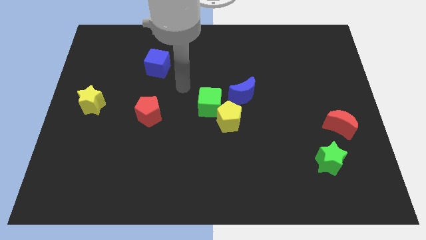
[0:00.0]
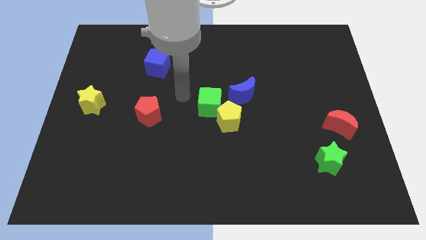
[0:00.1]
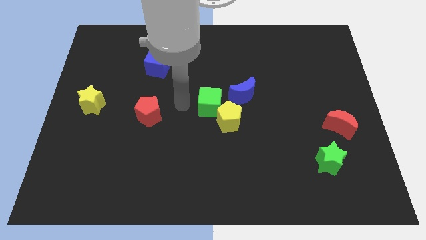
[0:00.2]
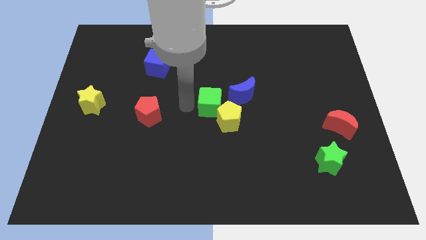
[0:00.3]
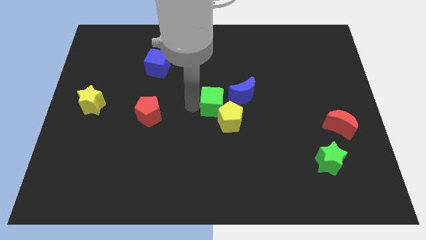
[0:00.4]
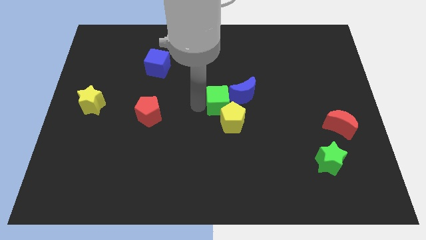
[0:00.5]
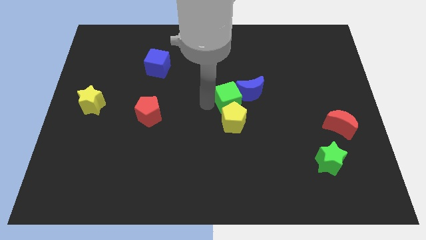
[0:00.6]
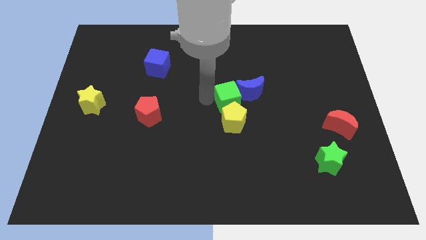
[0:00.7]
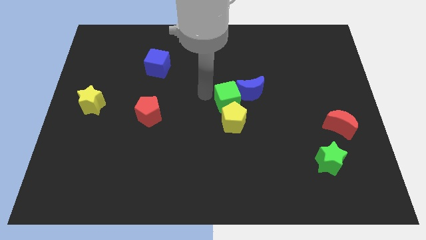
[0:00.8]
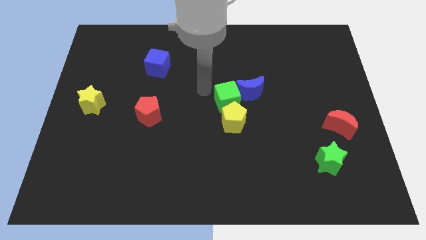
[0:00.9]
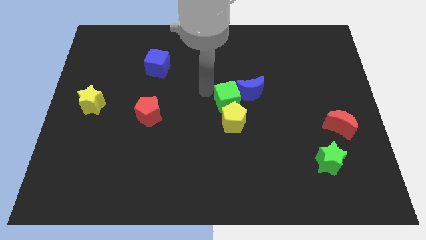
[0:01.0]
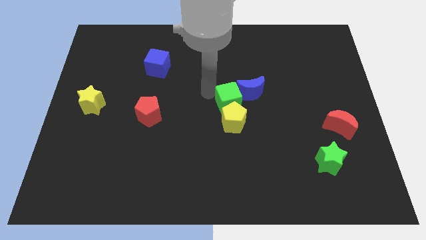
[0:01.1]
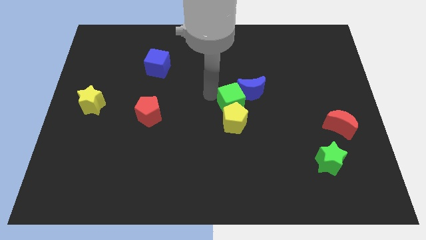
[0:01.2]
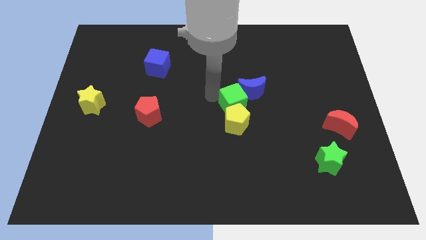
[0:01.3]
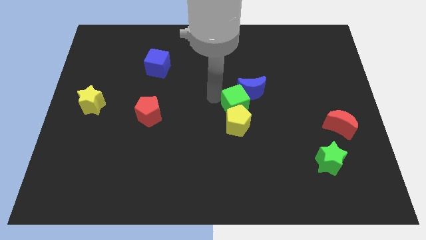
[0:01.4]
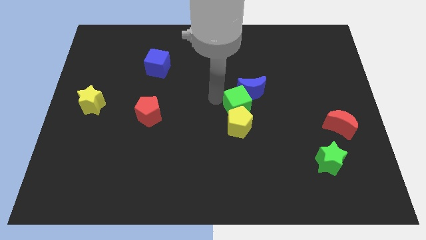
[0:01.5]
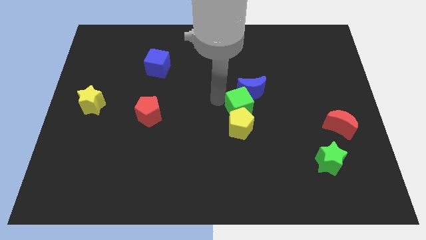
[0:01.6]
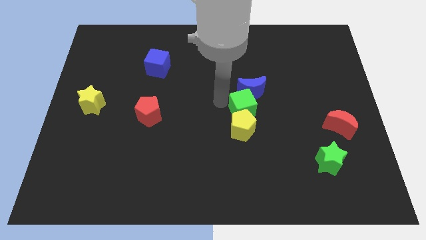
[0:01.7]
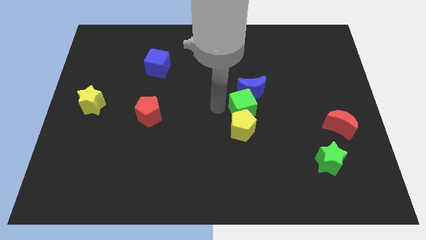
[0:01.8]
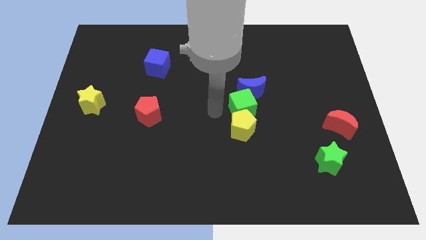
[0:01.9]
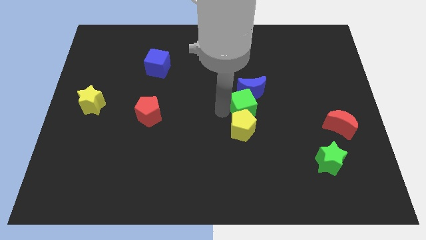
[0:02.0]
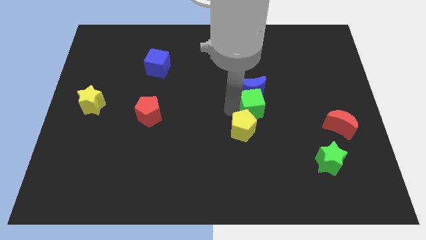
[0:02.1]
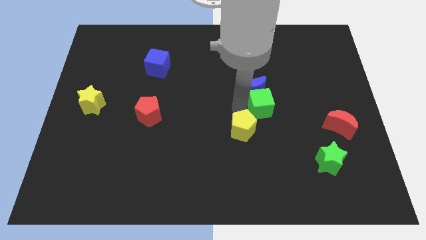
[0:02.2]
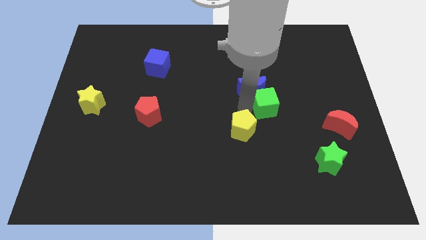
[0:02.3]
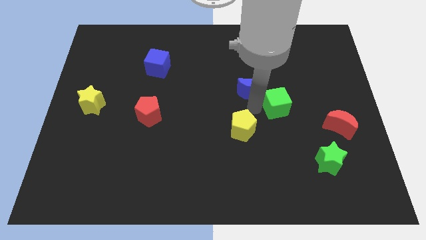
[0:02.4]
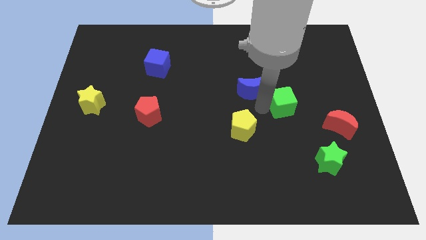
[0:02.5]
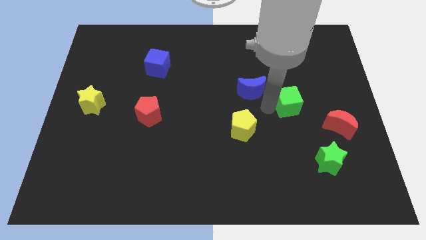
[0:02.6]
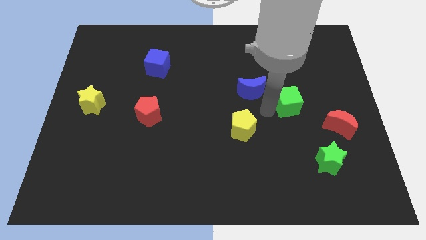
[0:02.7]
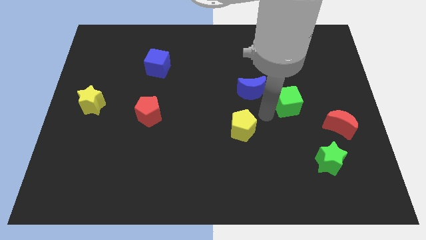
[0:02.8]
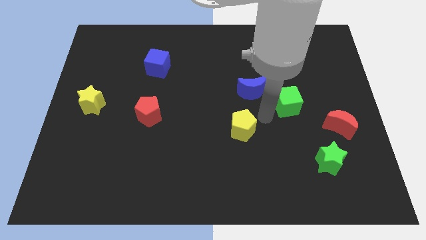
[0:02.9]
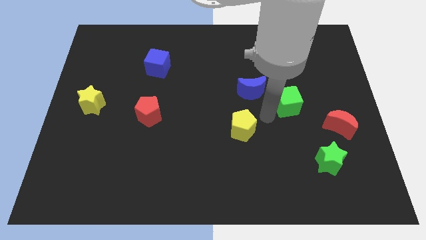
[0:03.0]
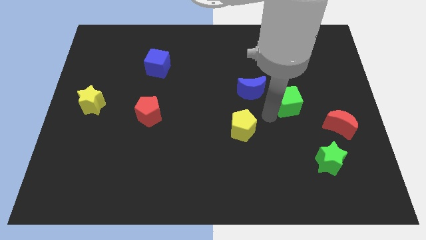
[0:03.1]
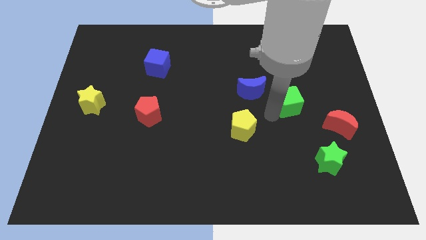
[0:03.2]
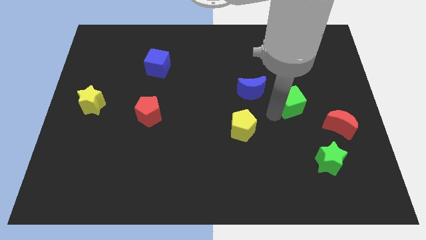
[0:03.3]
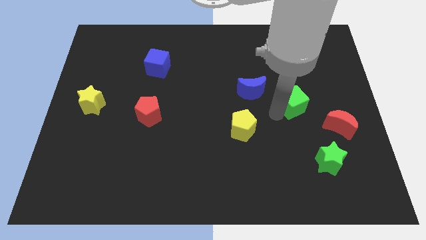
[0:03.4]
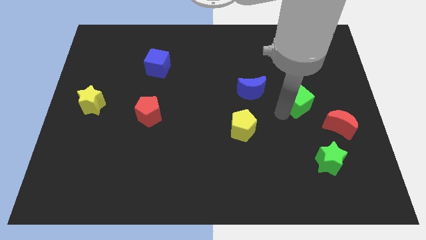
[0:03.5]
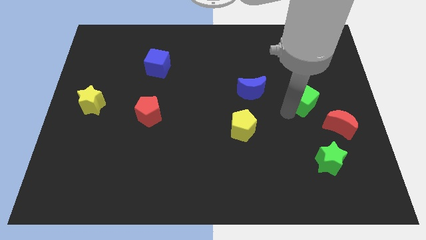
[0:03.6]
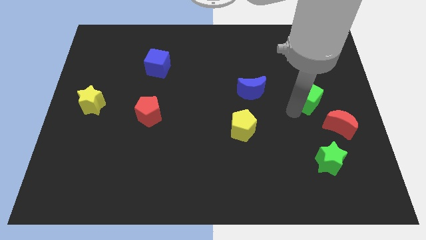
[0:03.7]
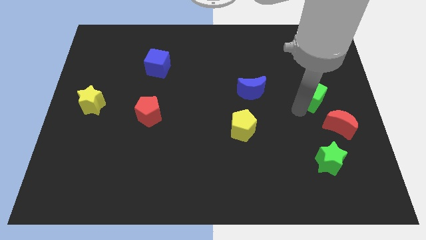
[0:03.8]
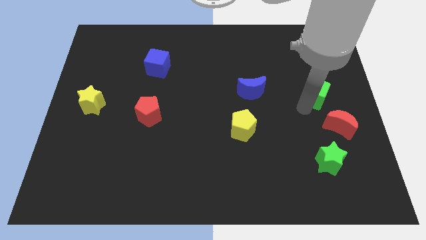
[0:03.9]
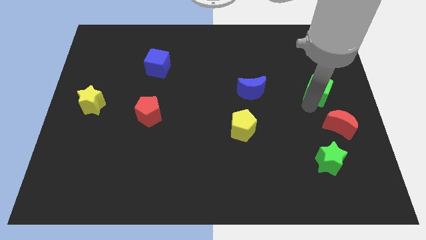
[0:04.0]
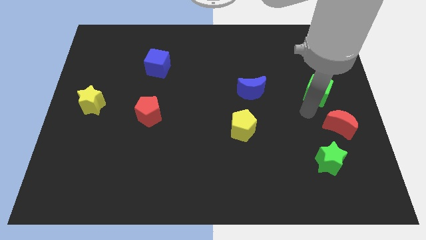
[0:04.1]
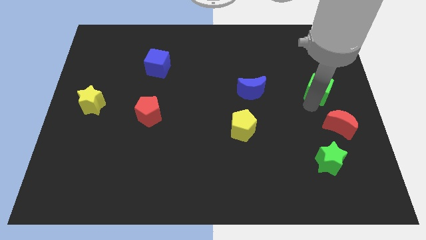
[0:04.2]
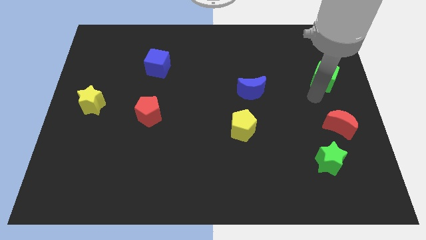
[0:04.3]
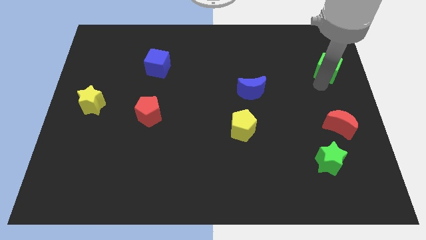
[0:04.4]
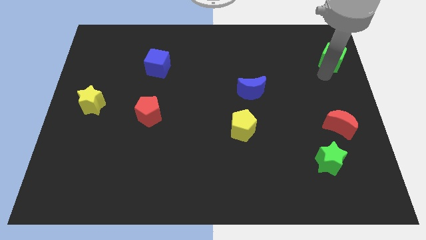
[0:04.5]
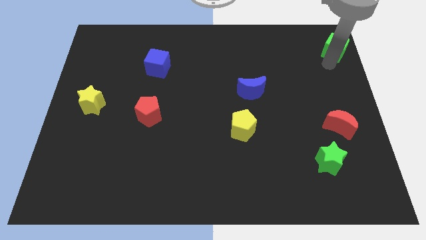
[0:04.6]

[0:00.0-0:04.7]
slide the green cube to the top right

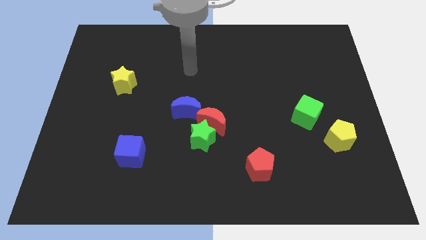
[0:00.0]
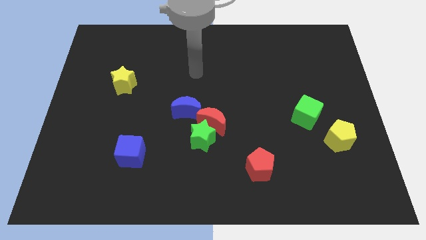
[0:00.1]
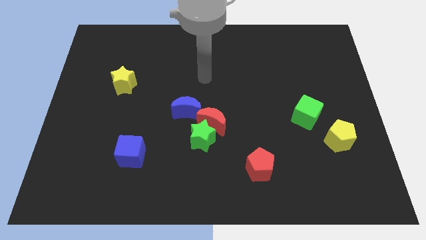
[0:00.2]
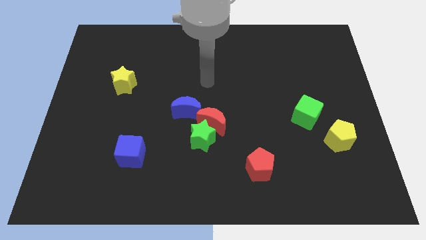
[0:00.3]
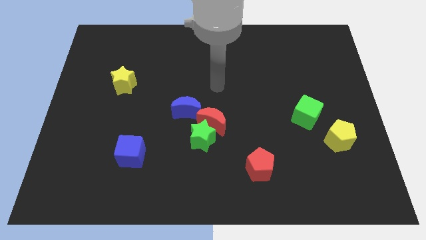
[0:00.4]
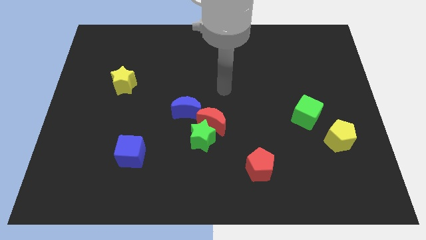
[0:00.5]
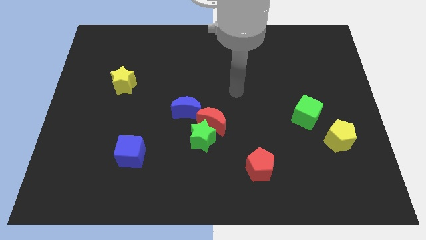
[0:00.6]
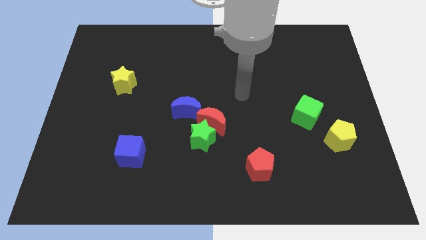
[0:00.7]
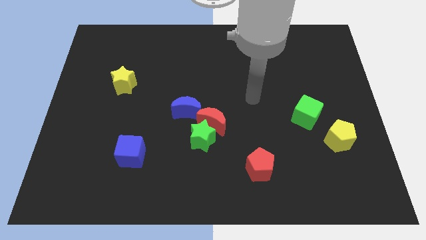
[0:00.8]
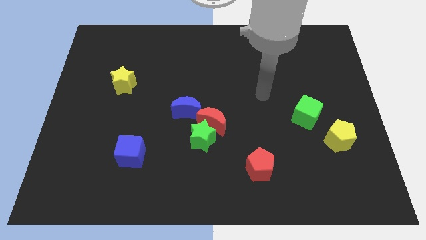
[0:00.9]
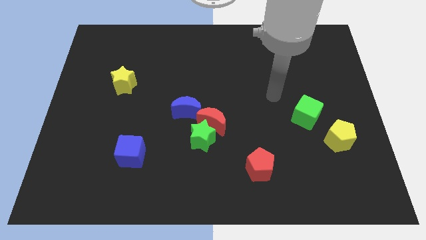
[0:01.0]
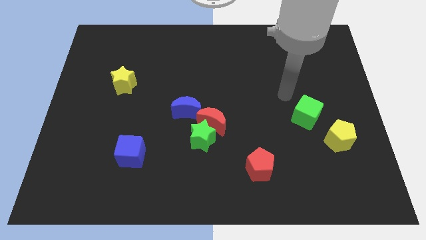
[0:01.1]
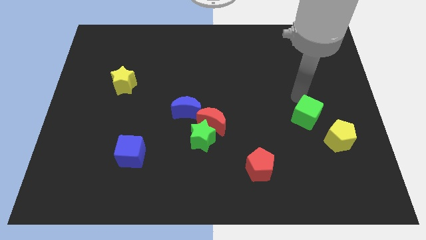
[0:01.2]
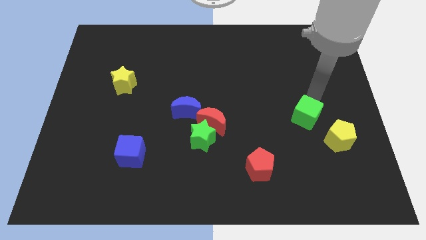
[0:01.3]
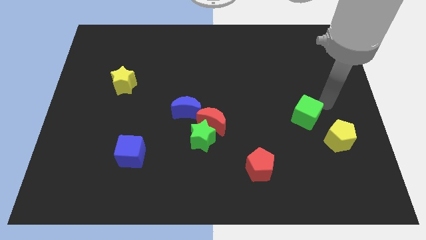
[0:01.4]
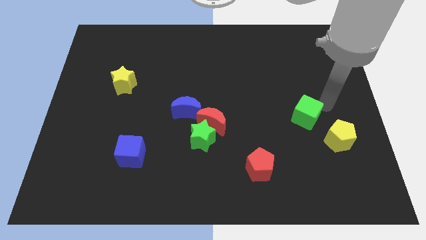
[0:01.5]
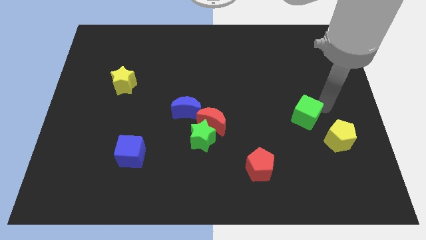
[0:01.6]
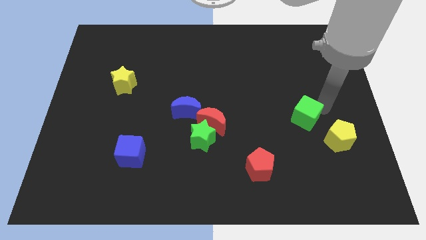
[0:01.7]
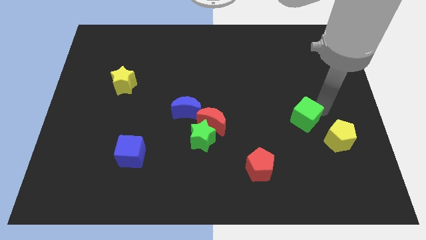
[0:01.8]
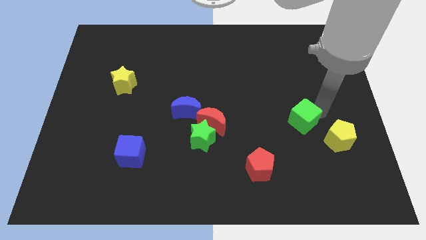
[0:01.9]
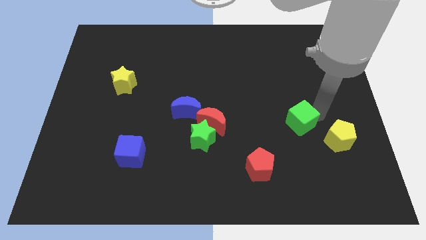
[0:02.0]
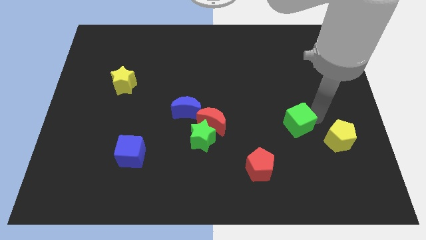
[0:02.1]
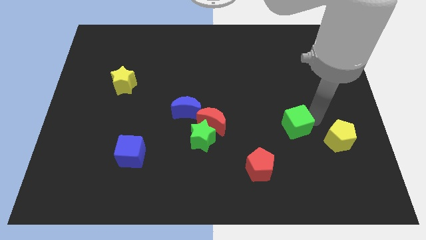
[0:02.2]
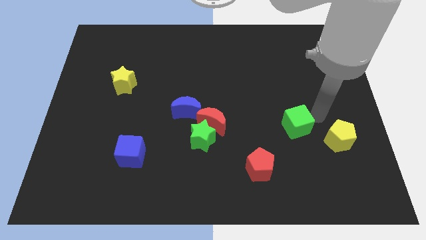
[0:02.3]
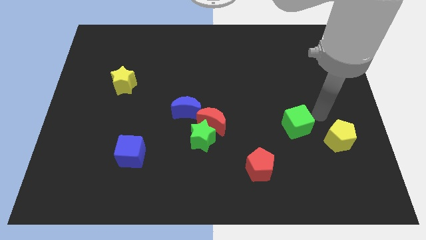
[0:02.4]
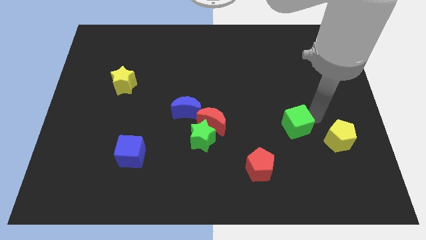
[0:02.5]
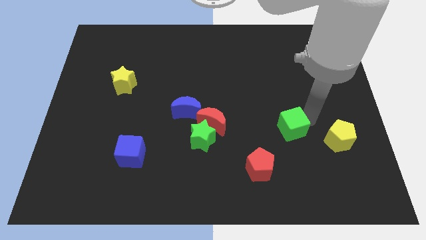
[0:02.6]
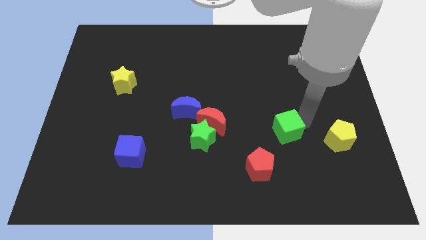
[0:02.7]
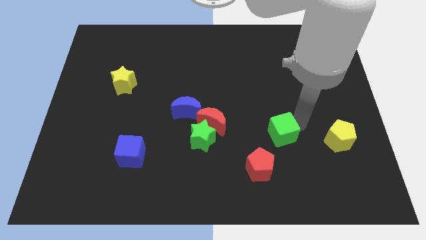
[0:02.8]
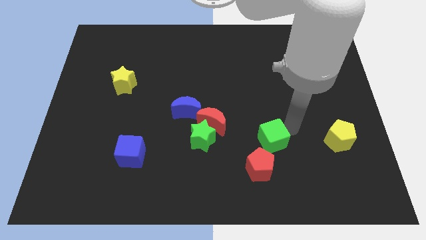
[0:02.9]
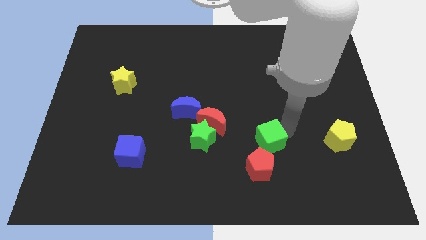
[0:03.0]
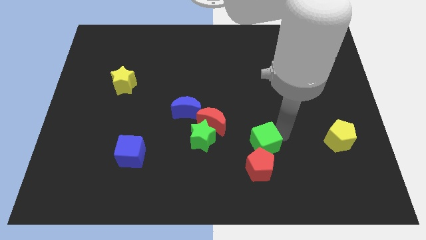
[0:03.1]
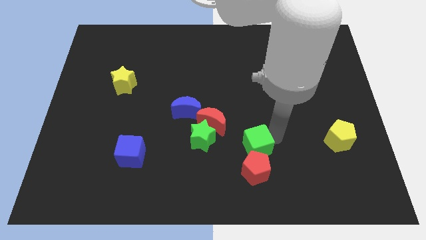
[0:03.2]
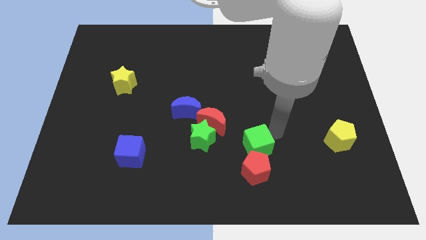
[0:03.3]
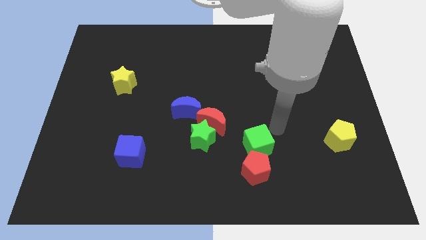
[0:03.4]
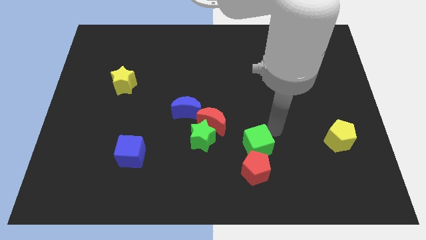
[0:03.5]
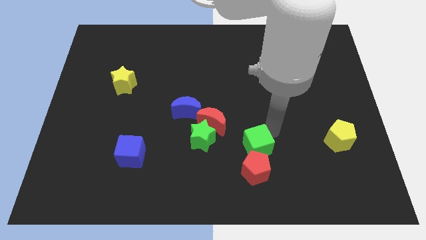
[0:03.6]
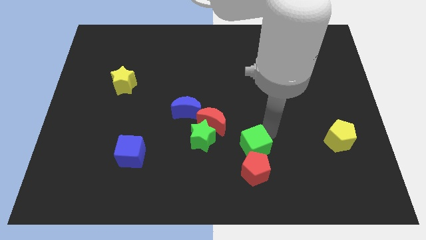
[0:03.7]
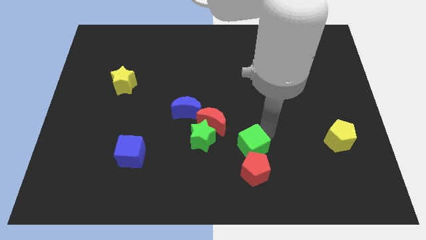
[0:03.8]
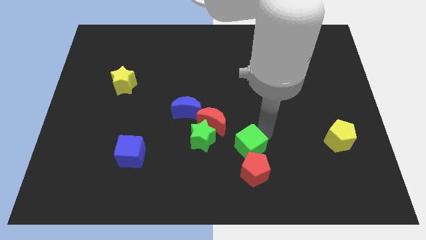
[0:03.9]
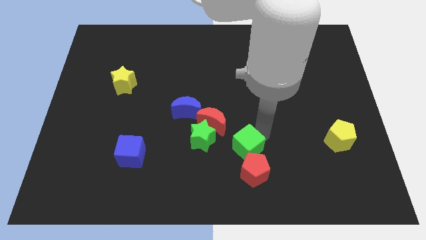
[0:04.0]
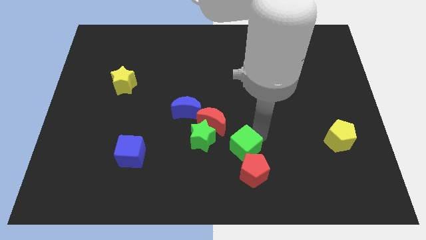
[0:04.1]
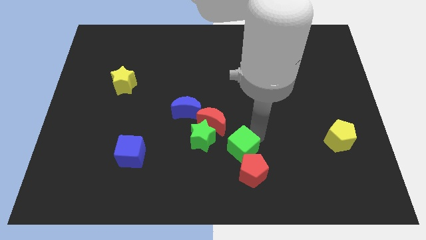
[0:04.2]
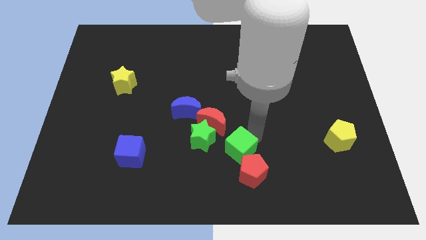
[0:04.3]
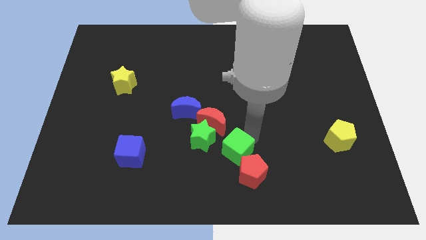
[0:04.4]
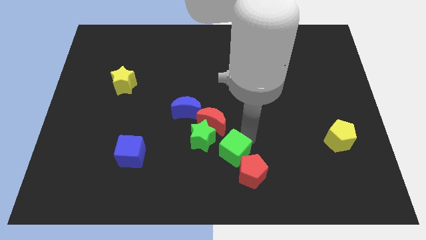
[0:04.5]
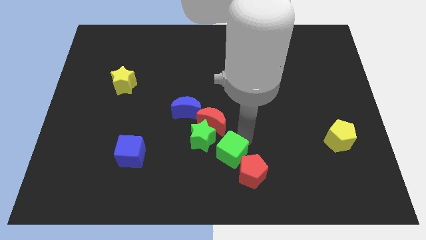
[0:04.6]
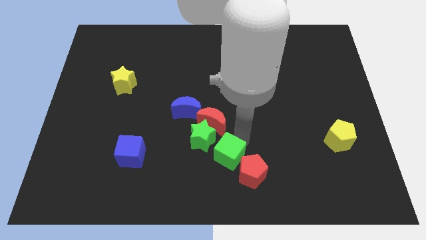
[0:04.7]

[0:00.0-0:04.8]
put the green cube to the bottom
